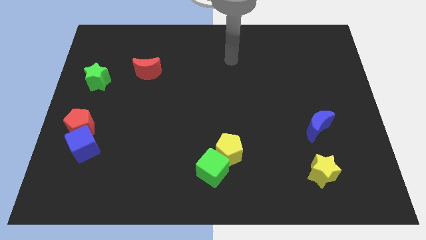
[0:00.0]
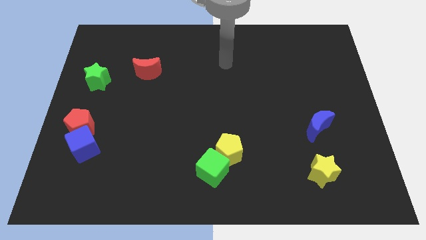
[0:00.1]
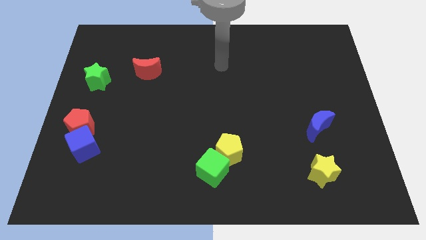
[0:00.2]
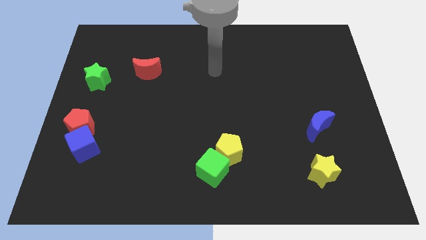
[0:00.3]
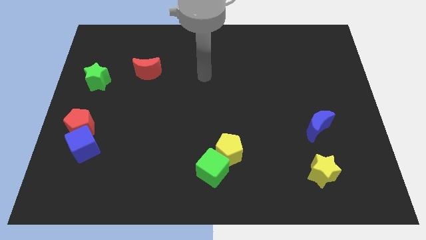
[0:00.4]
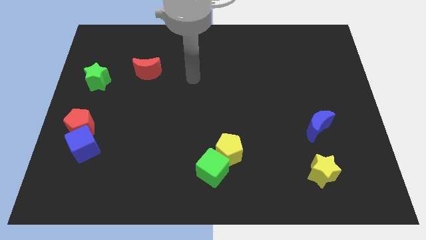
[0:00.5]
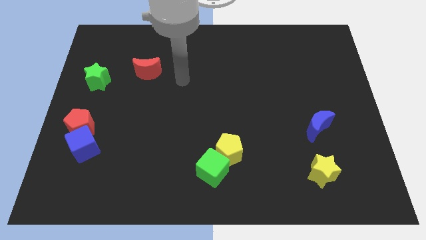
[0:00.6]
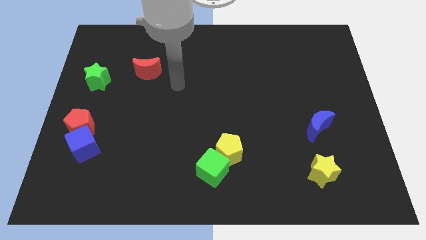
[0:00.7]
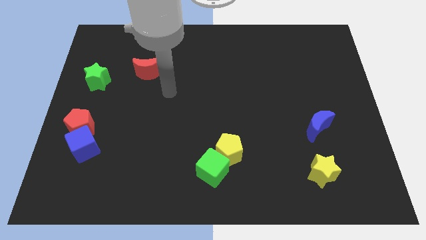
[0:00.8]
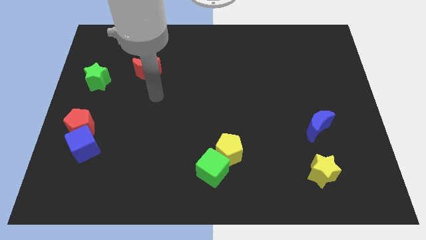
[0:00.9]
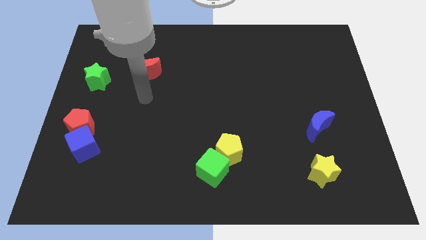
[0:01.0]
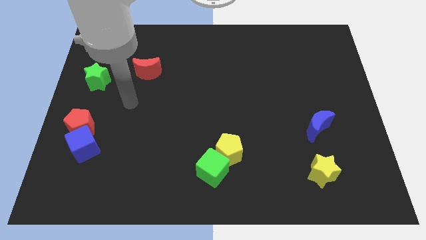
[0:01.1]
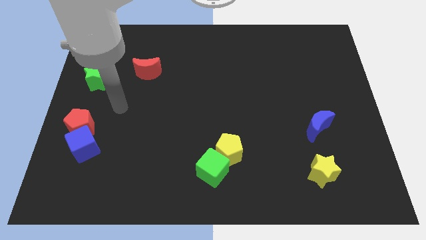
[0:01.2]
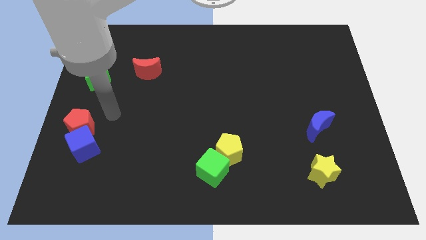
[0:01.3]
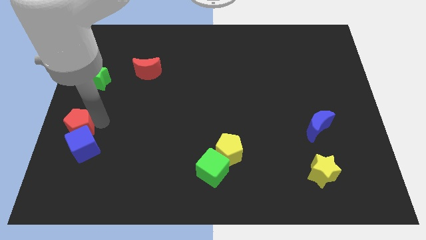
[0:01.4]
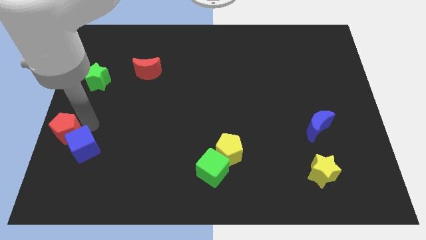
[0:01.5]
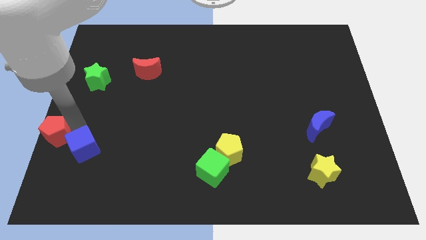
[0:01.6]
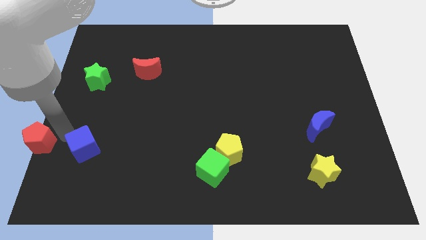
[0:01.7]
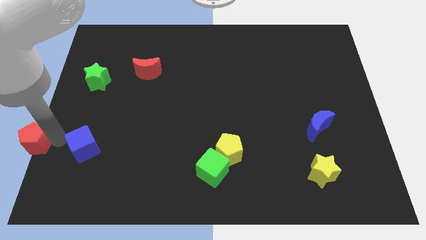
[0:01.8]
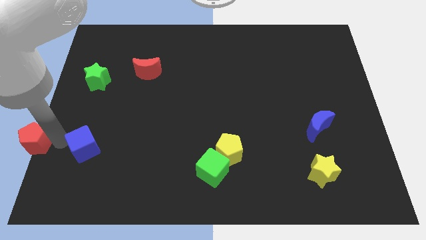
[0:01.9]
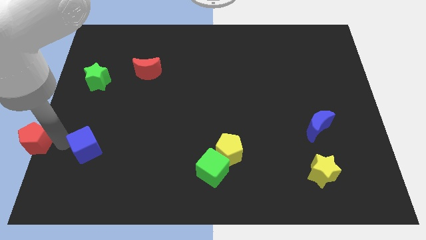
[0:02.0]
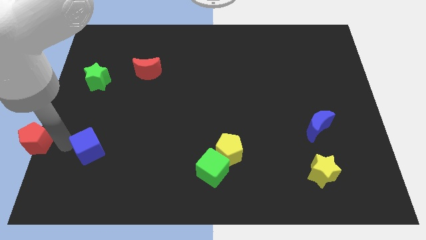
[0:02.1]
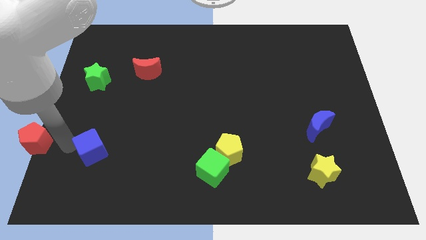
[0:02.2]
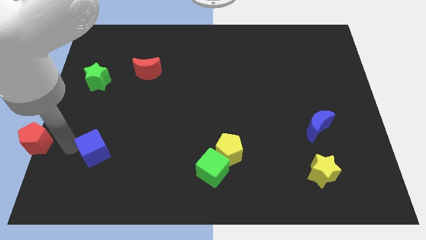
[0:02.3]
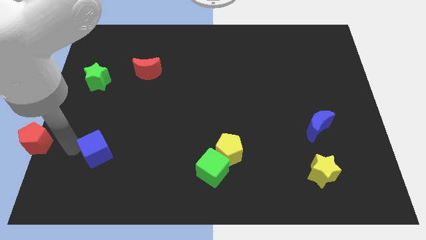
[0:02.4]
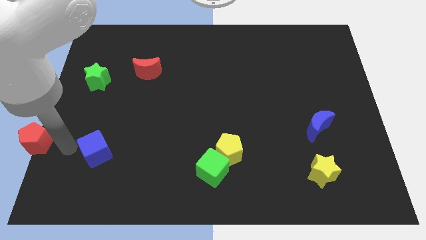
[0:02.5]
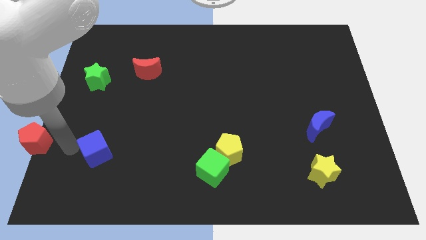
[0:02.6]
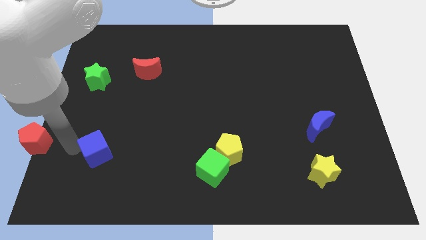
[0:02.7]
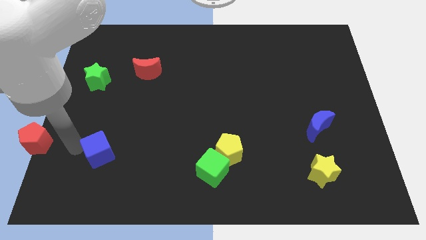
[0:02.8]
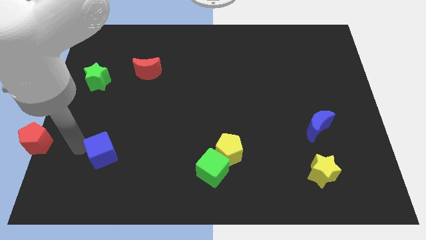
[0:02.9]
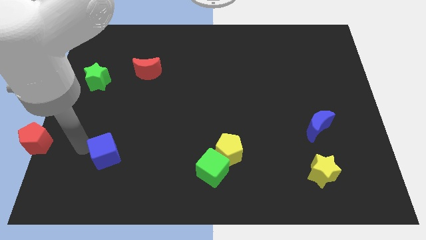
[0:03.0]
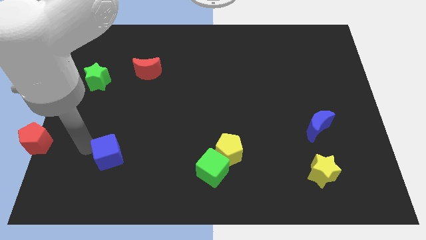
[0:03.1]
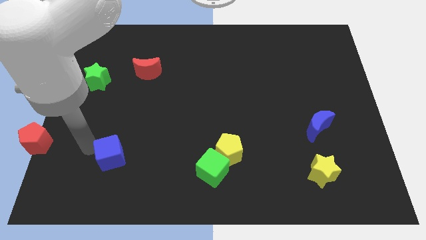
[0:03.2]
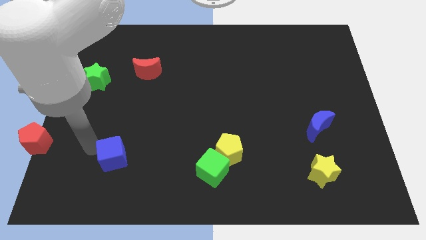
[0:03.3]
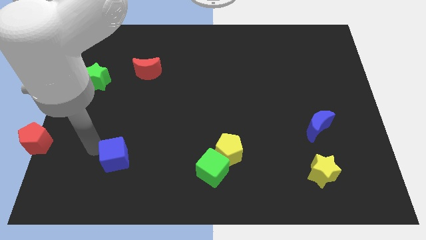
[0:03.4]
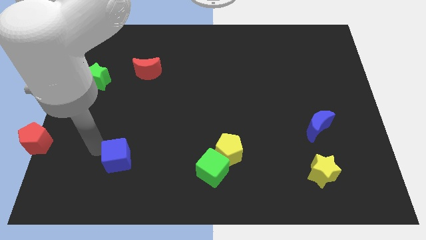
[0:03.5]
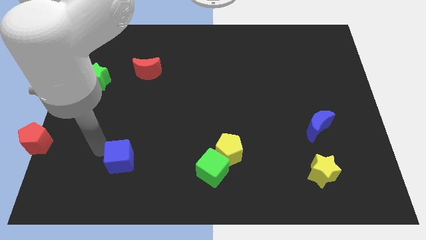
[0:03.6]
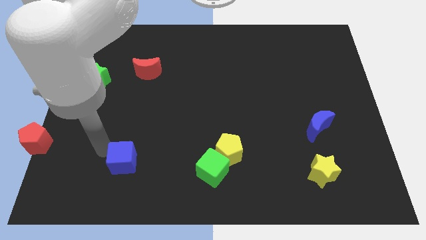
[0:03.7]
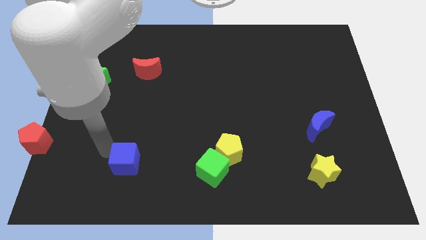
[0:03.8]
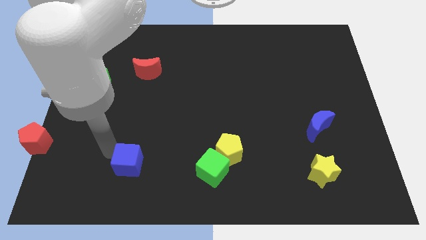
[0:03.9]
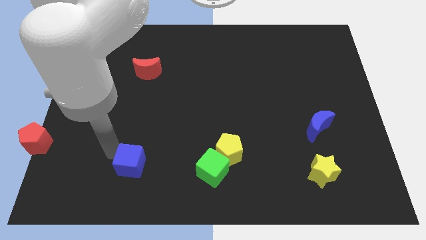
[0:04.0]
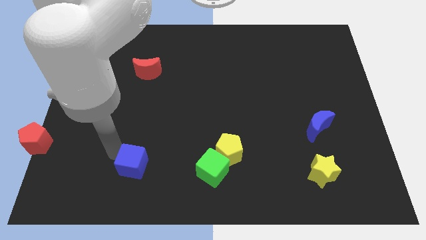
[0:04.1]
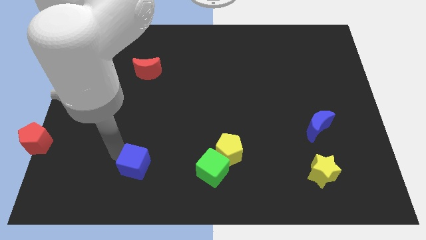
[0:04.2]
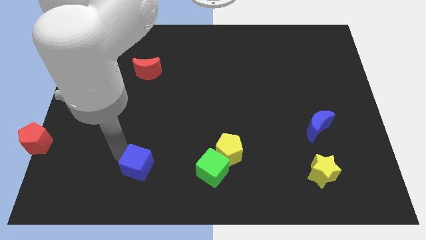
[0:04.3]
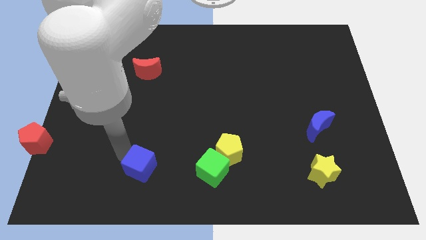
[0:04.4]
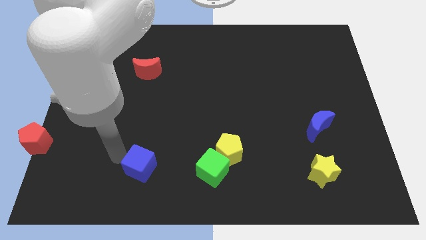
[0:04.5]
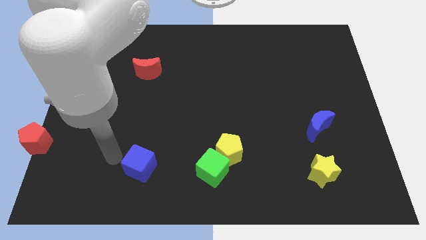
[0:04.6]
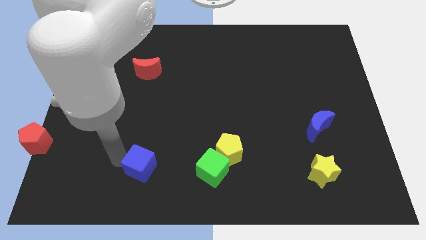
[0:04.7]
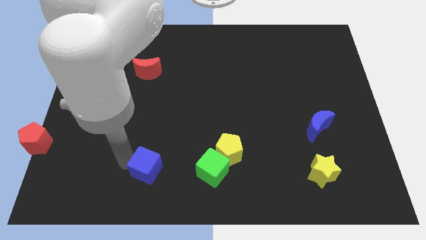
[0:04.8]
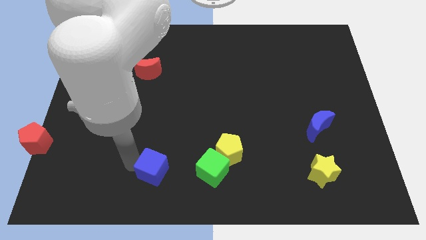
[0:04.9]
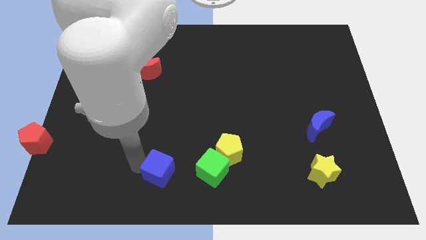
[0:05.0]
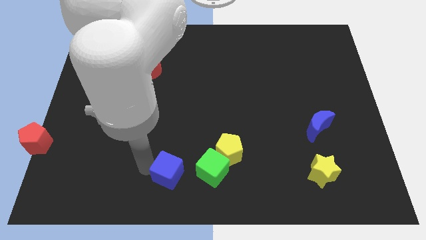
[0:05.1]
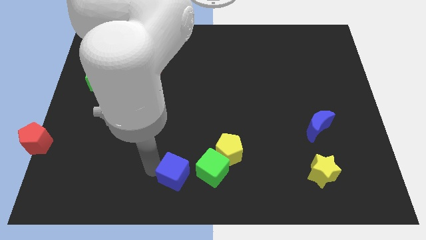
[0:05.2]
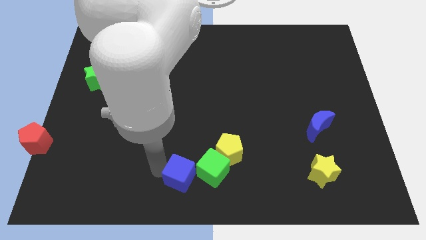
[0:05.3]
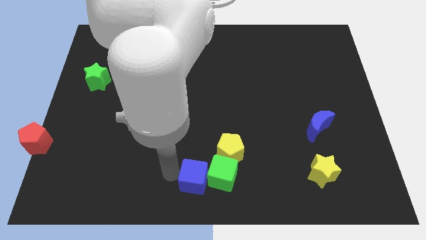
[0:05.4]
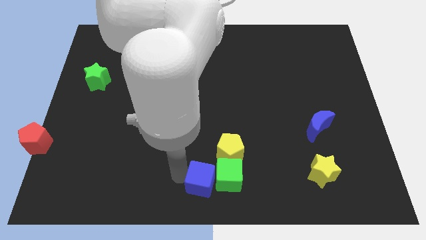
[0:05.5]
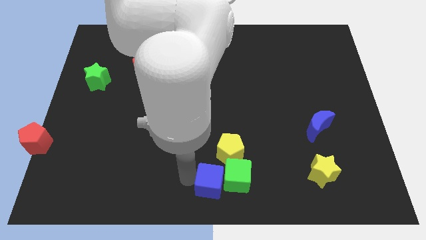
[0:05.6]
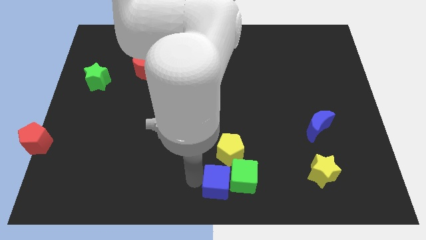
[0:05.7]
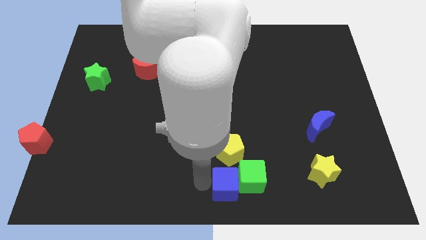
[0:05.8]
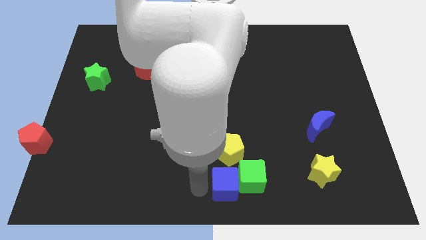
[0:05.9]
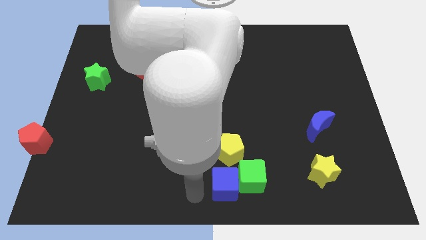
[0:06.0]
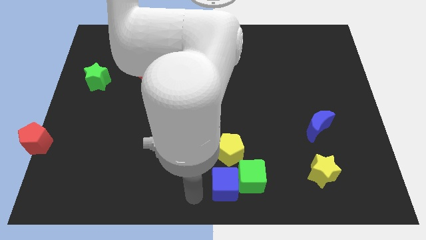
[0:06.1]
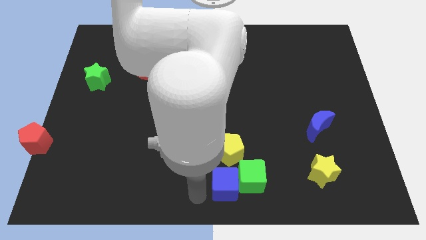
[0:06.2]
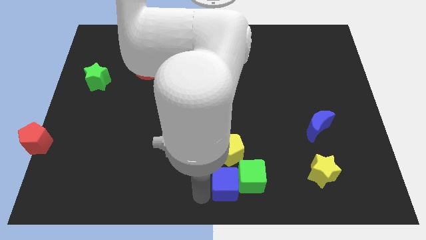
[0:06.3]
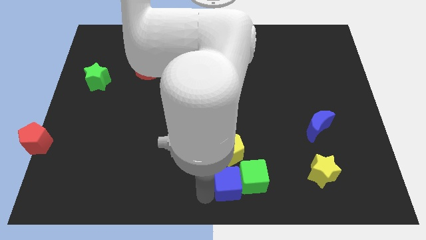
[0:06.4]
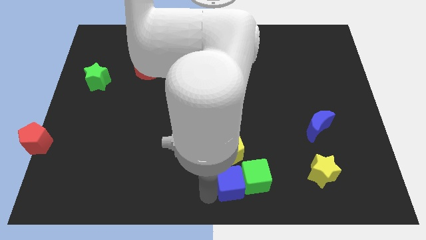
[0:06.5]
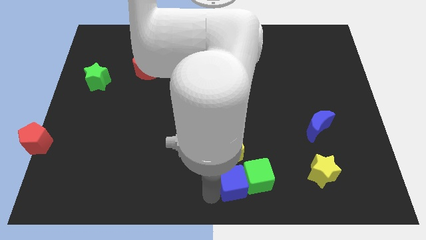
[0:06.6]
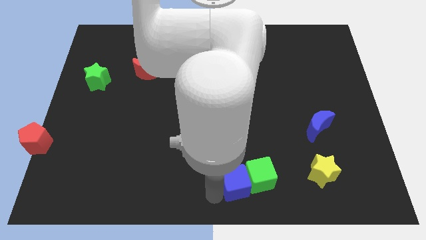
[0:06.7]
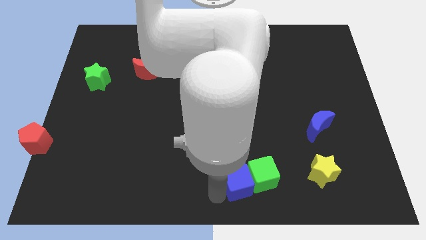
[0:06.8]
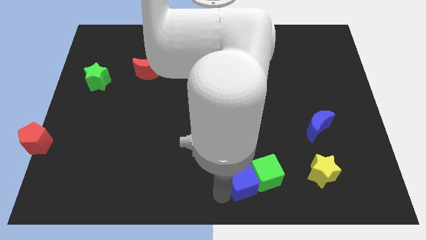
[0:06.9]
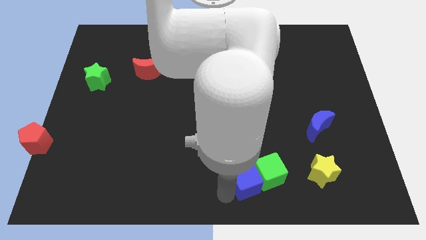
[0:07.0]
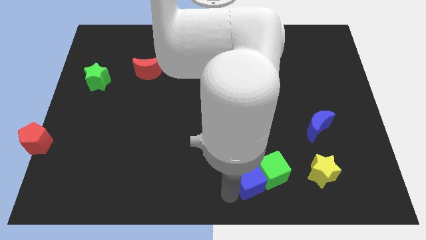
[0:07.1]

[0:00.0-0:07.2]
push the blue cube to the left side of the yellow star
